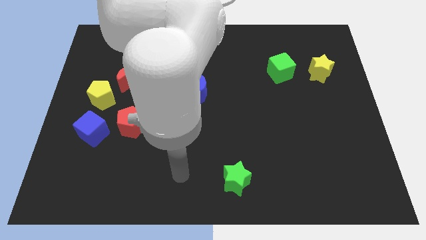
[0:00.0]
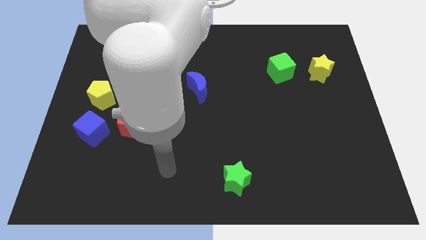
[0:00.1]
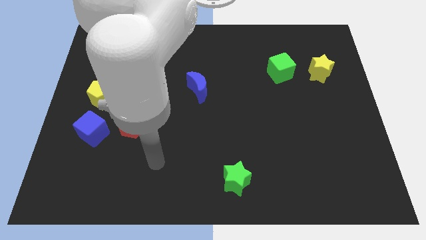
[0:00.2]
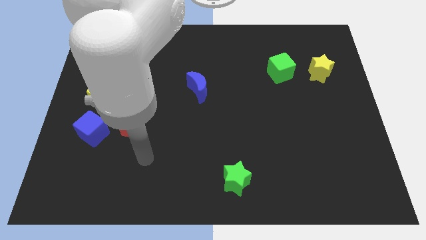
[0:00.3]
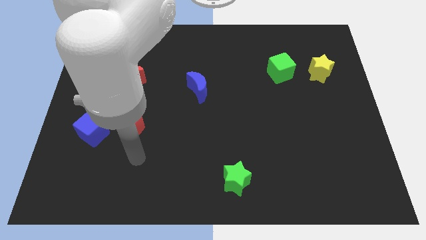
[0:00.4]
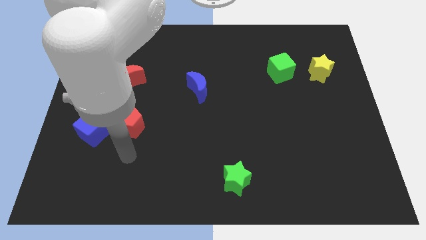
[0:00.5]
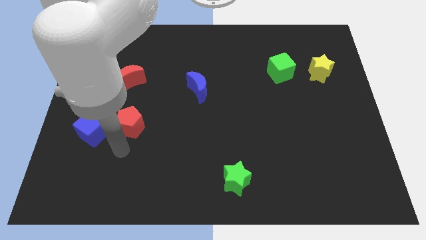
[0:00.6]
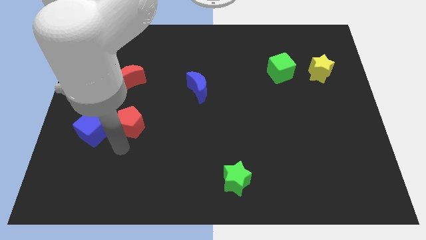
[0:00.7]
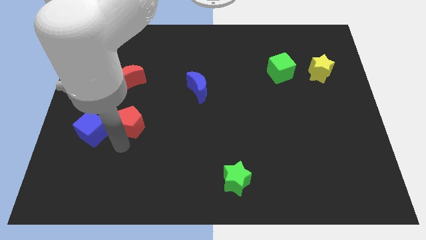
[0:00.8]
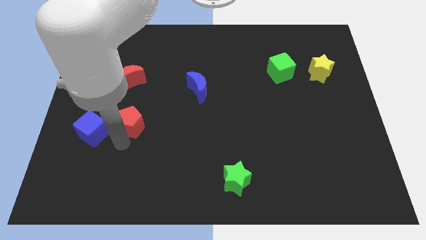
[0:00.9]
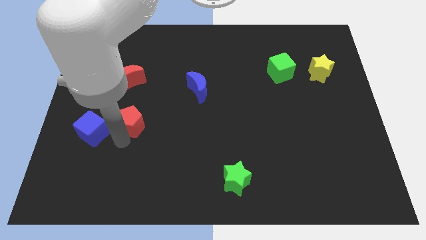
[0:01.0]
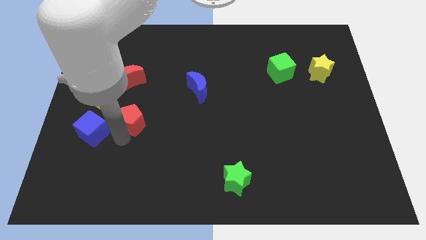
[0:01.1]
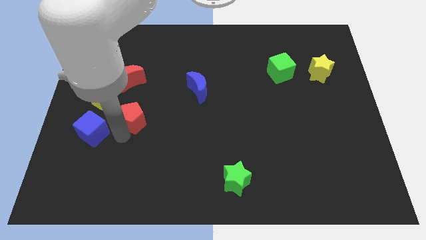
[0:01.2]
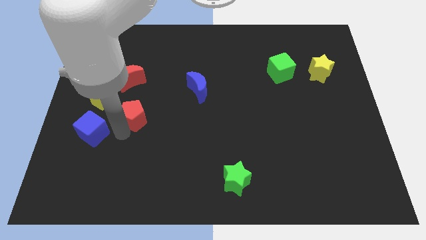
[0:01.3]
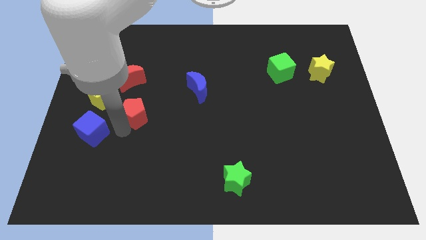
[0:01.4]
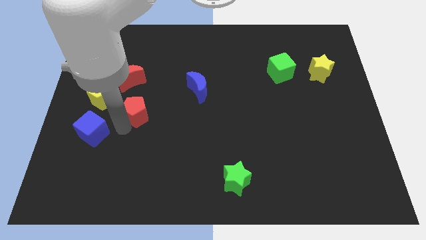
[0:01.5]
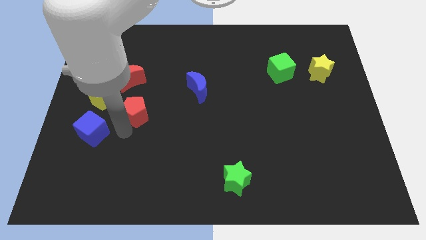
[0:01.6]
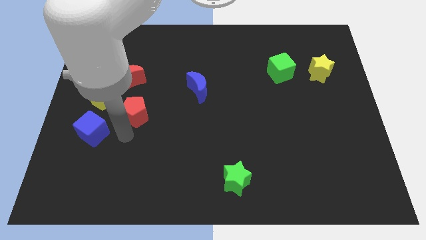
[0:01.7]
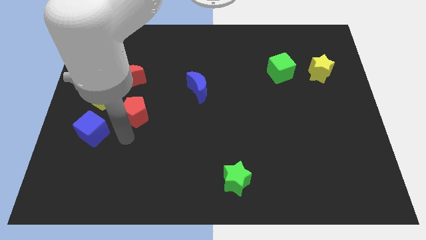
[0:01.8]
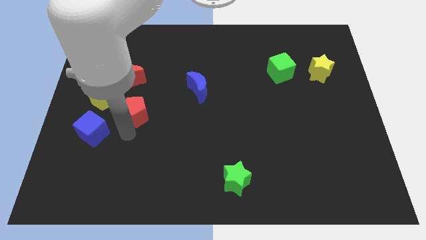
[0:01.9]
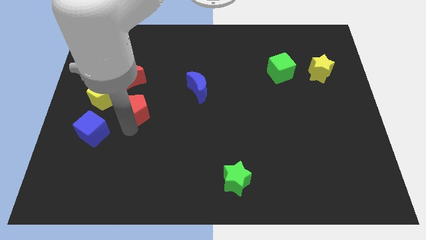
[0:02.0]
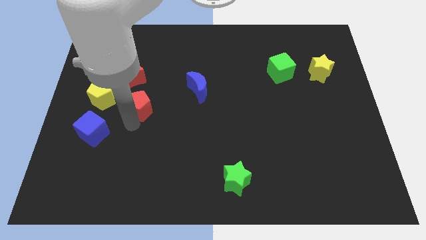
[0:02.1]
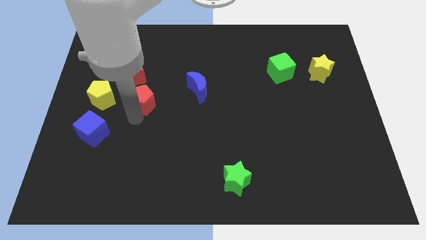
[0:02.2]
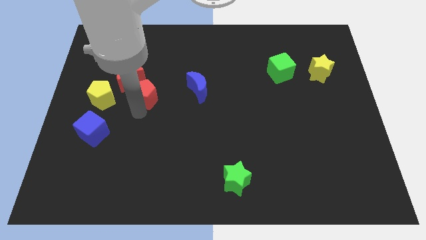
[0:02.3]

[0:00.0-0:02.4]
move the red pentagon somewhat up

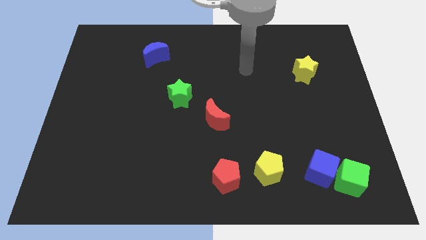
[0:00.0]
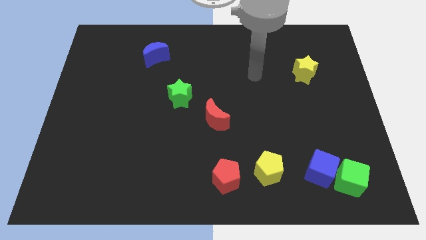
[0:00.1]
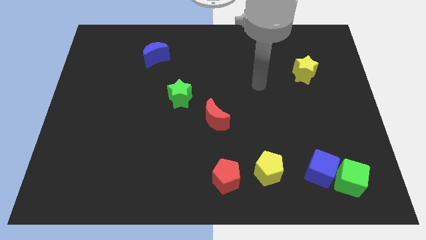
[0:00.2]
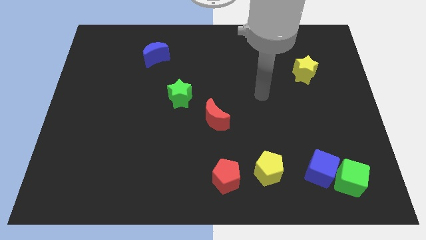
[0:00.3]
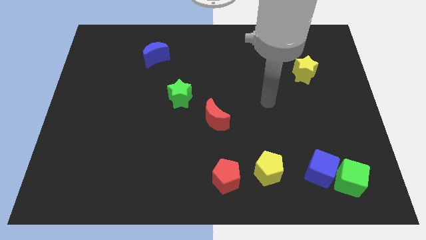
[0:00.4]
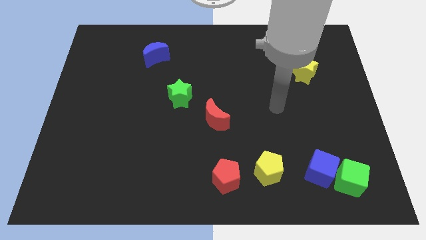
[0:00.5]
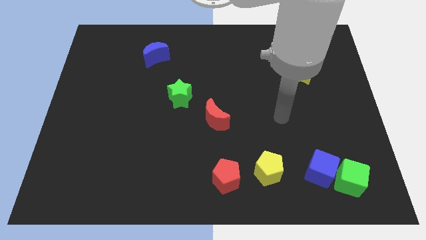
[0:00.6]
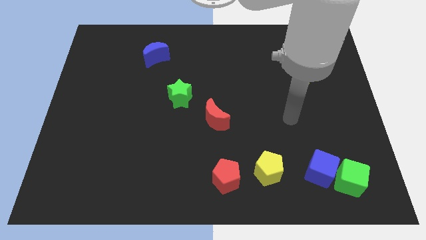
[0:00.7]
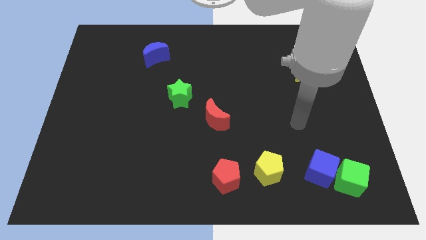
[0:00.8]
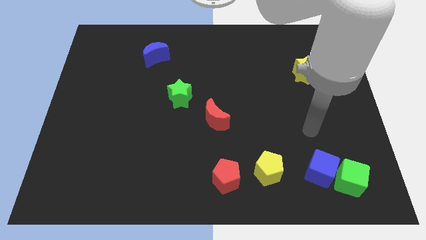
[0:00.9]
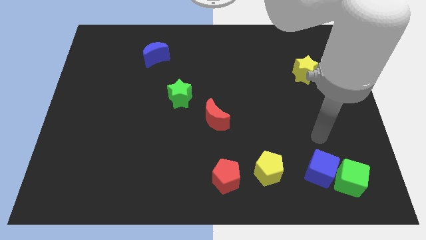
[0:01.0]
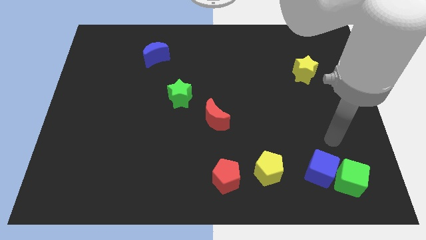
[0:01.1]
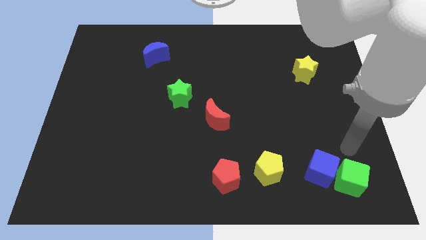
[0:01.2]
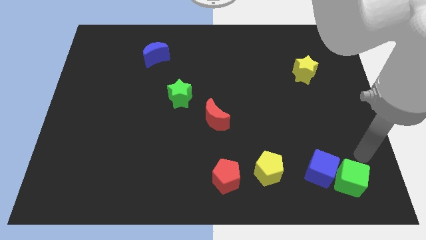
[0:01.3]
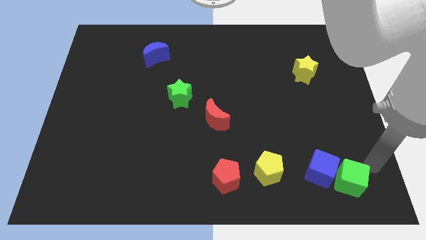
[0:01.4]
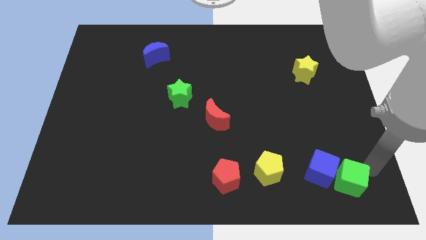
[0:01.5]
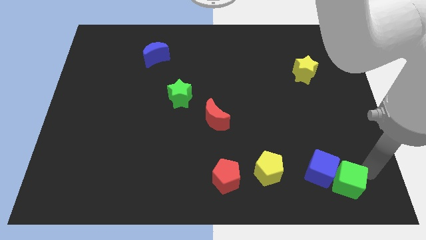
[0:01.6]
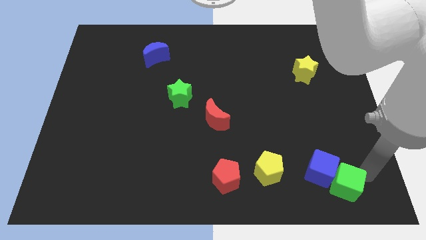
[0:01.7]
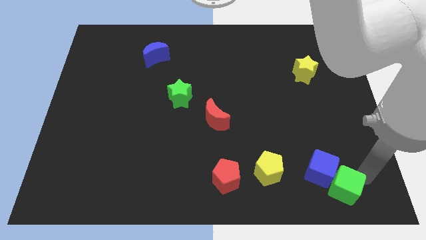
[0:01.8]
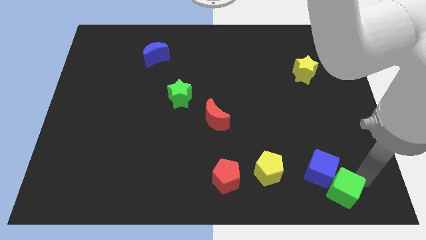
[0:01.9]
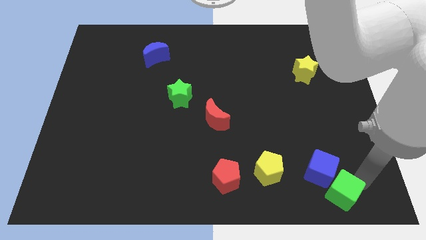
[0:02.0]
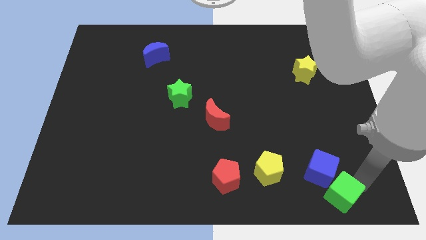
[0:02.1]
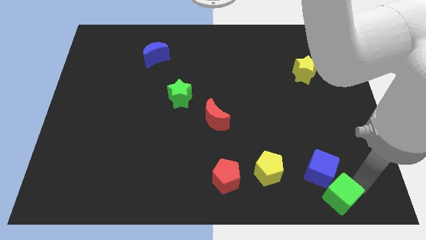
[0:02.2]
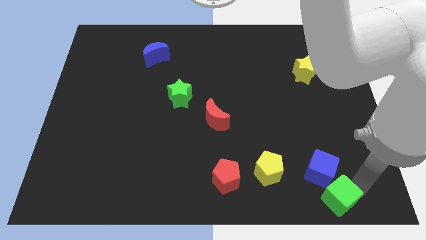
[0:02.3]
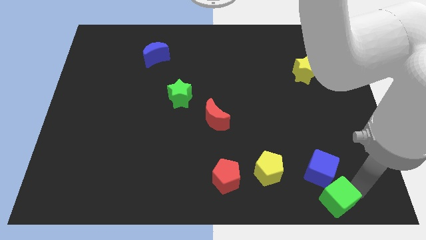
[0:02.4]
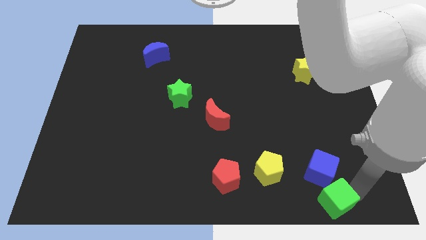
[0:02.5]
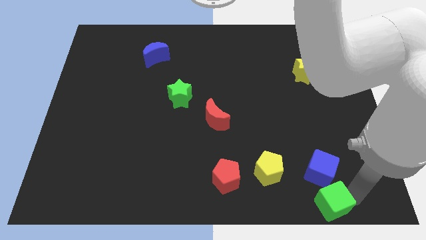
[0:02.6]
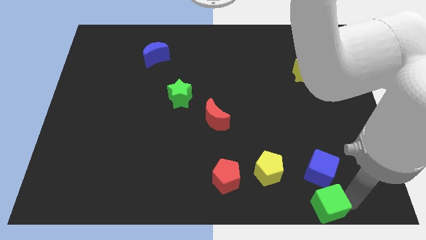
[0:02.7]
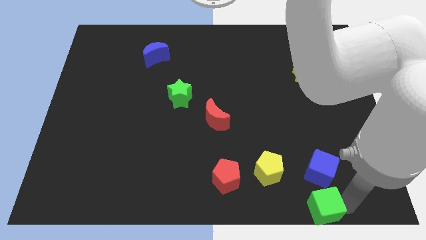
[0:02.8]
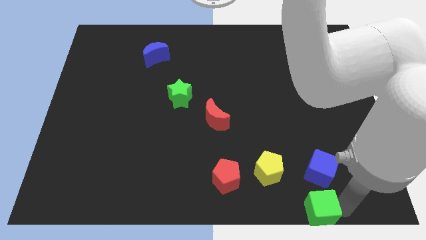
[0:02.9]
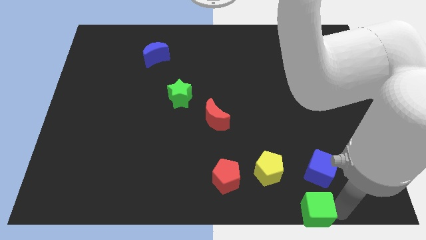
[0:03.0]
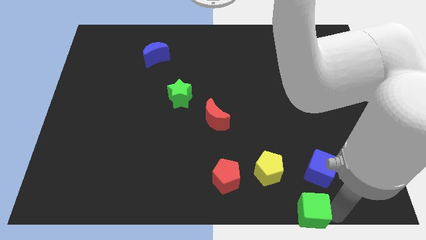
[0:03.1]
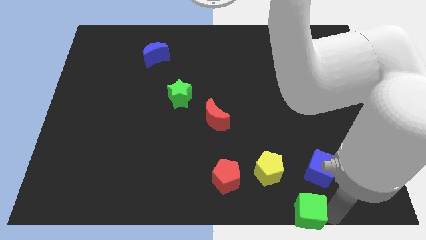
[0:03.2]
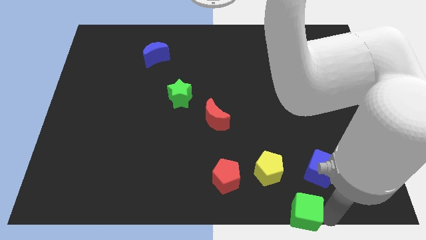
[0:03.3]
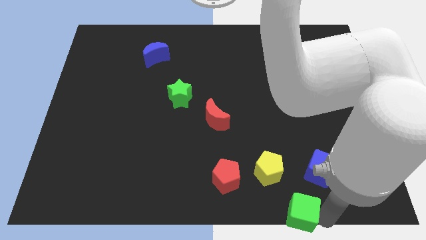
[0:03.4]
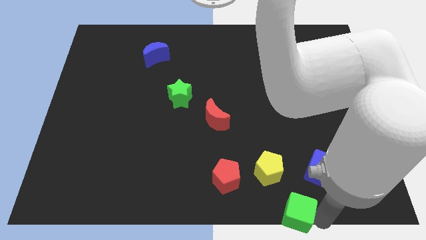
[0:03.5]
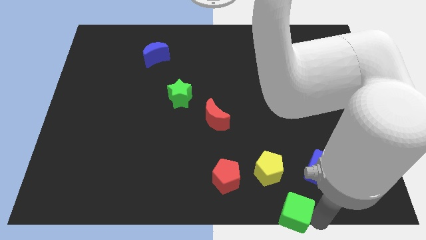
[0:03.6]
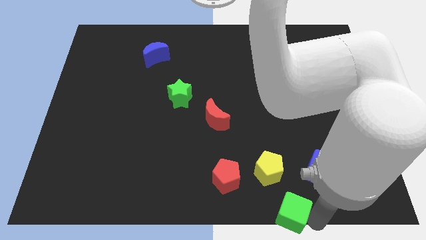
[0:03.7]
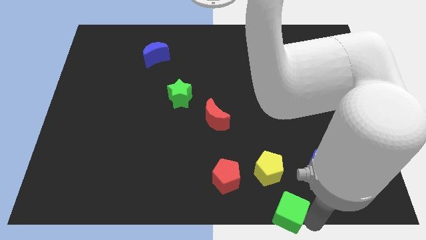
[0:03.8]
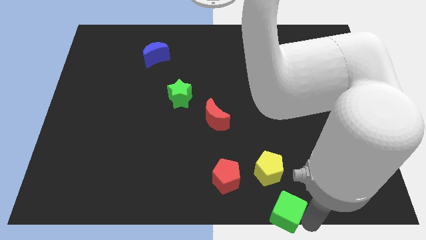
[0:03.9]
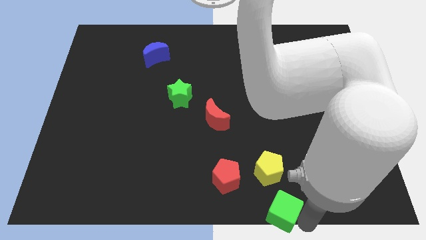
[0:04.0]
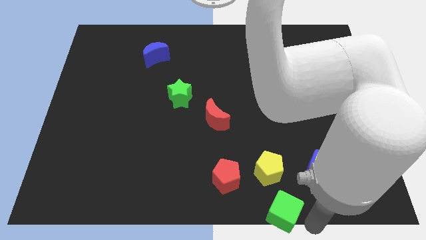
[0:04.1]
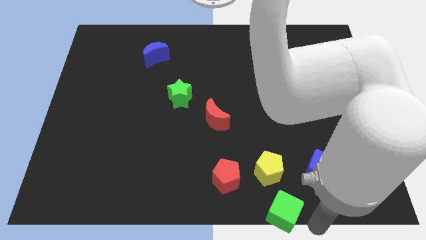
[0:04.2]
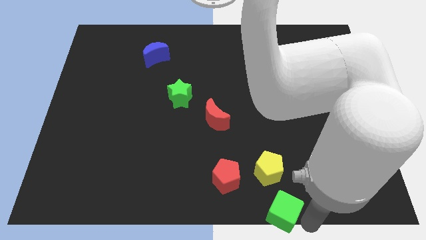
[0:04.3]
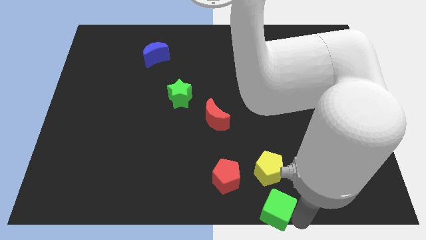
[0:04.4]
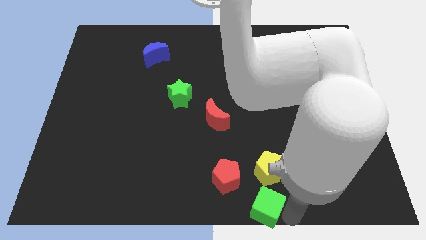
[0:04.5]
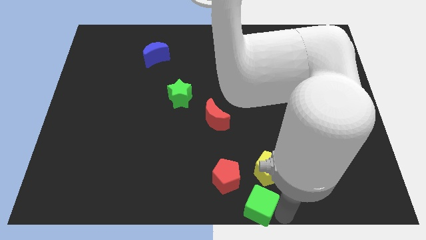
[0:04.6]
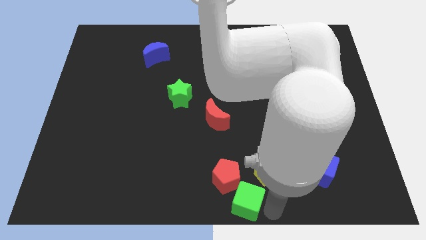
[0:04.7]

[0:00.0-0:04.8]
move the green cube to the left

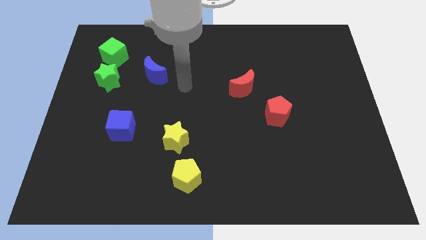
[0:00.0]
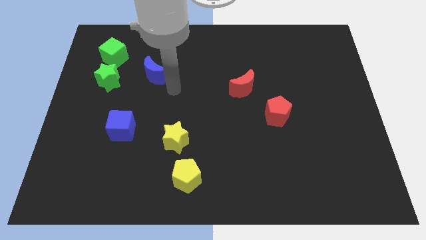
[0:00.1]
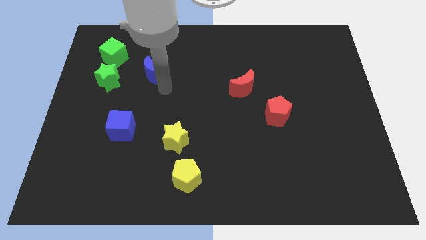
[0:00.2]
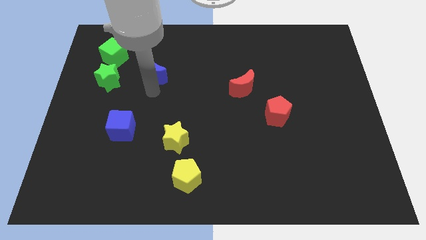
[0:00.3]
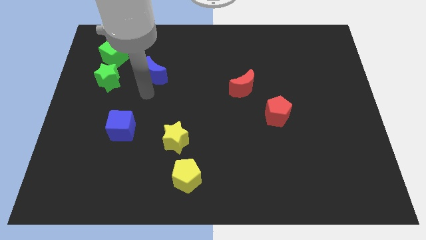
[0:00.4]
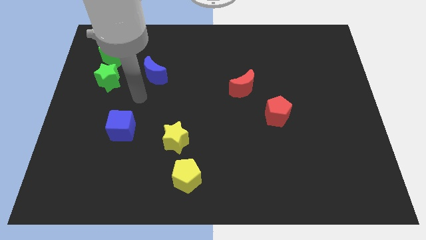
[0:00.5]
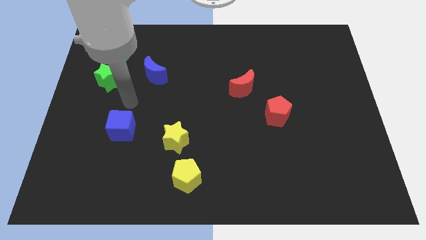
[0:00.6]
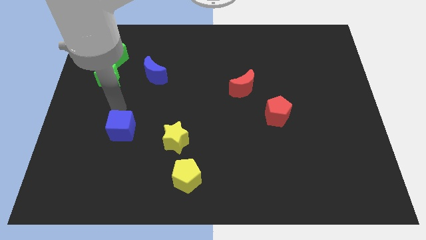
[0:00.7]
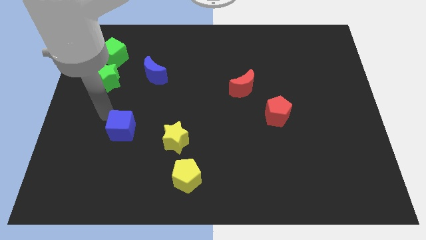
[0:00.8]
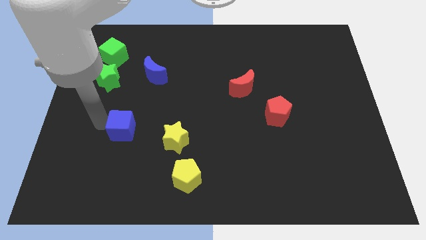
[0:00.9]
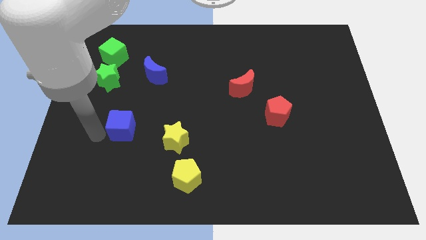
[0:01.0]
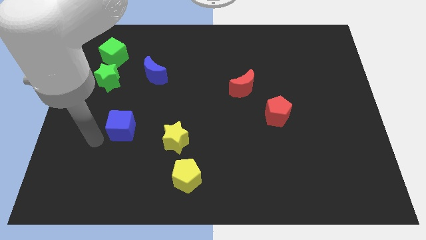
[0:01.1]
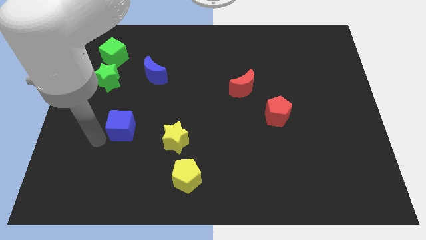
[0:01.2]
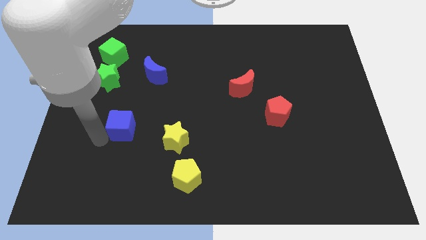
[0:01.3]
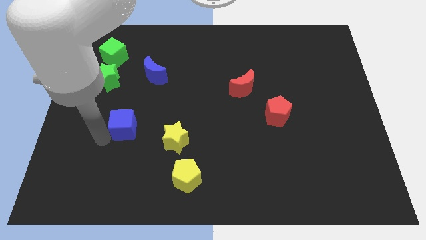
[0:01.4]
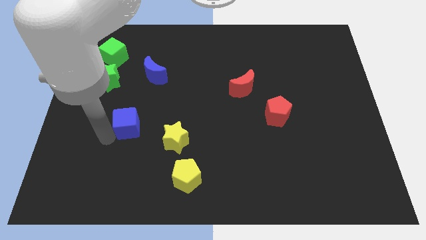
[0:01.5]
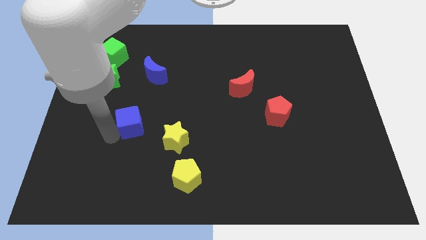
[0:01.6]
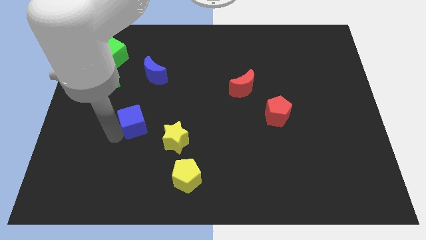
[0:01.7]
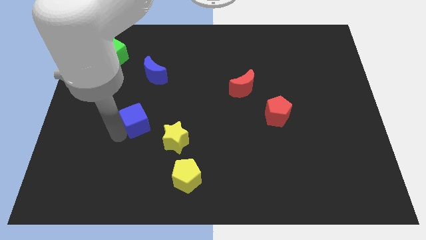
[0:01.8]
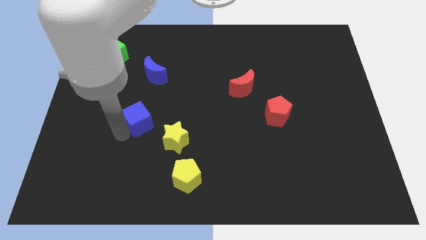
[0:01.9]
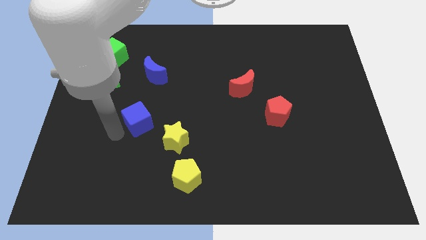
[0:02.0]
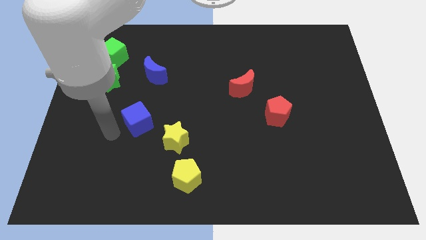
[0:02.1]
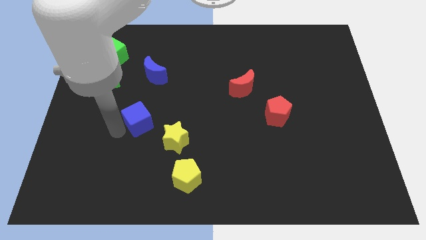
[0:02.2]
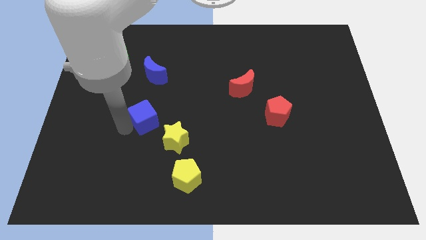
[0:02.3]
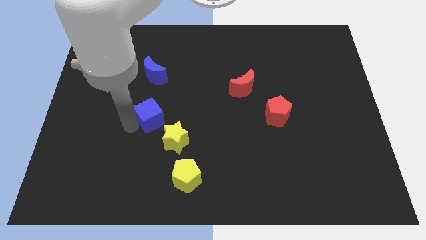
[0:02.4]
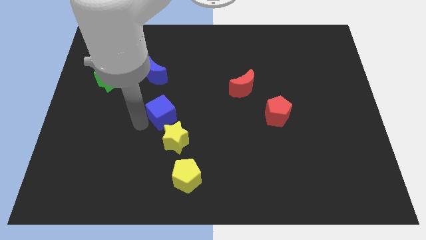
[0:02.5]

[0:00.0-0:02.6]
move the blue cube a little bit up and to the right diagonally
